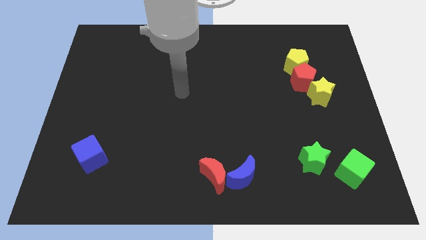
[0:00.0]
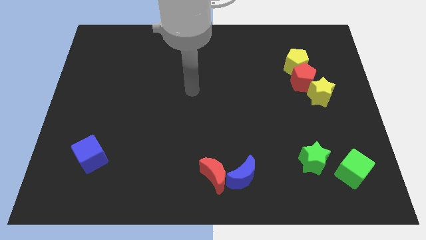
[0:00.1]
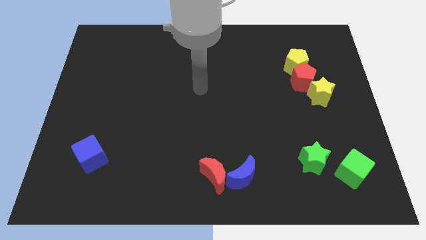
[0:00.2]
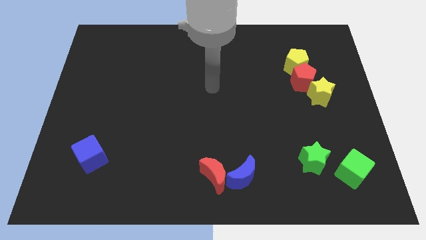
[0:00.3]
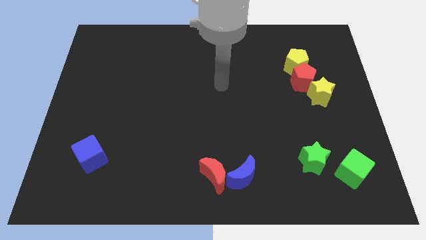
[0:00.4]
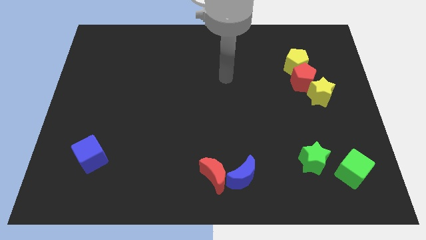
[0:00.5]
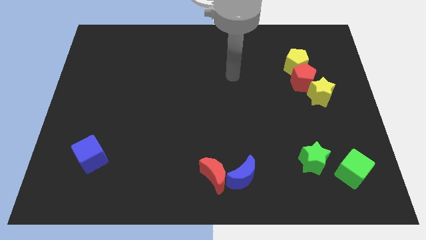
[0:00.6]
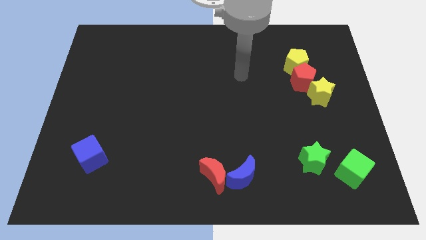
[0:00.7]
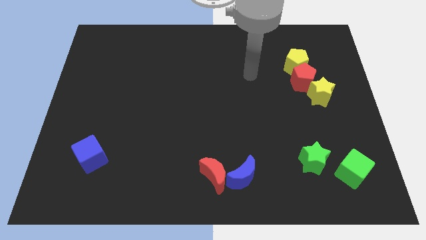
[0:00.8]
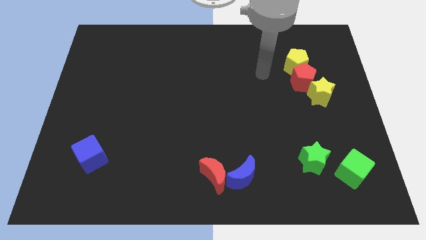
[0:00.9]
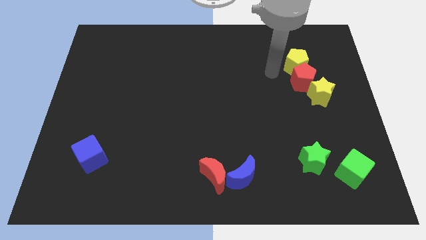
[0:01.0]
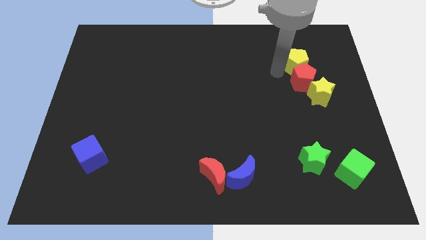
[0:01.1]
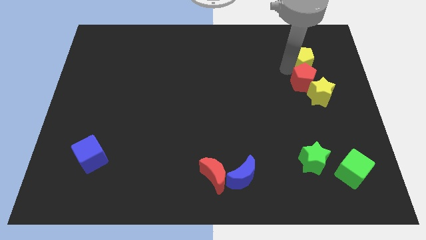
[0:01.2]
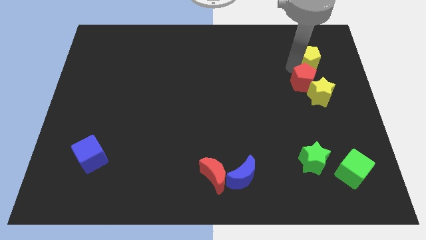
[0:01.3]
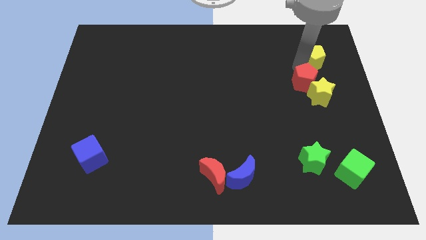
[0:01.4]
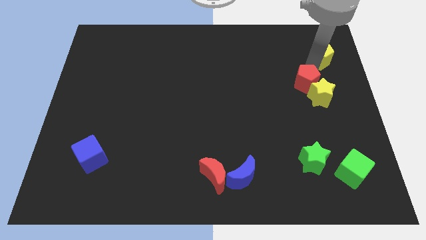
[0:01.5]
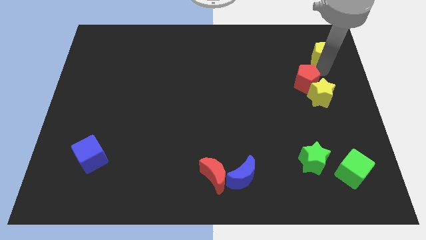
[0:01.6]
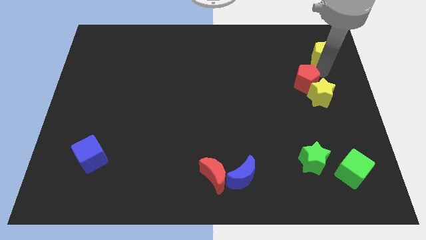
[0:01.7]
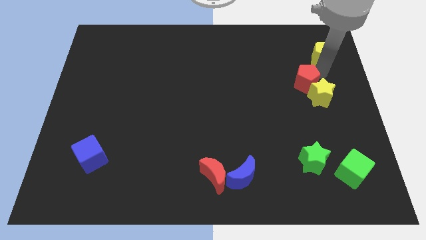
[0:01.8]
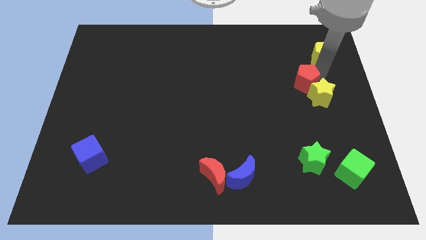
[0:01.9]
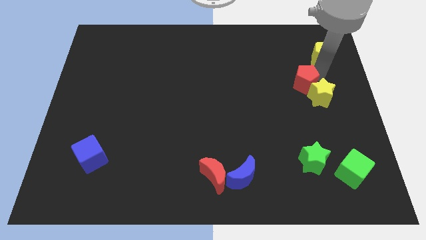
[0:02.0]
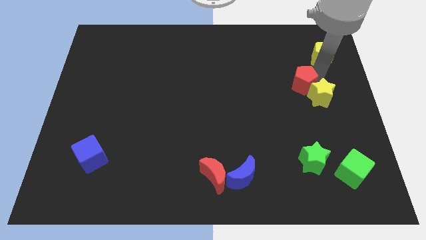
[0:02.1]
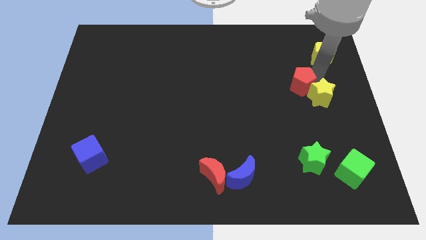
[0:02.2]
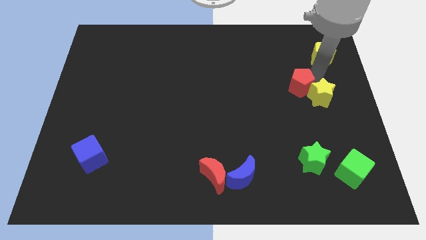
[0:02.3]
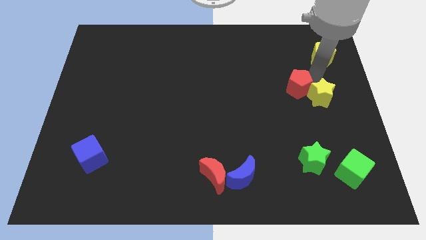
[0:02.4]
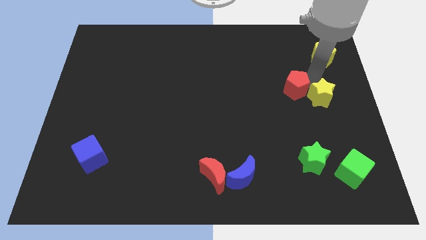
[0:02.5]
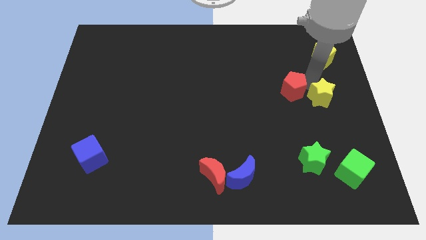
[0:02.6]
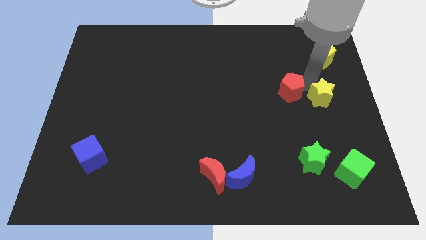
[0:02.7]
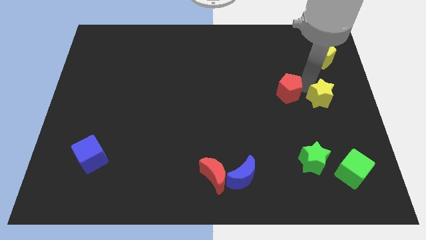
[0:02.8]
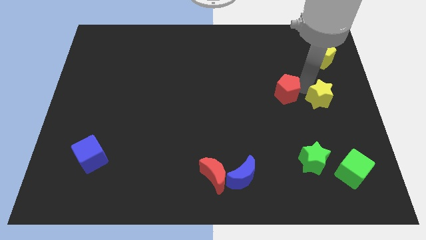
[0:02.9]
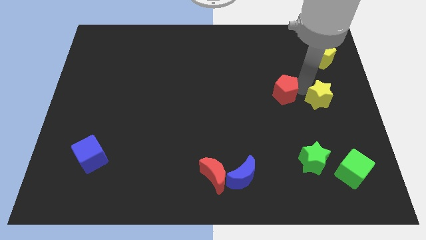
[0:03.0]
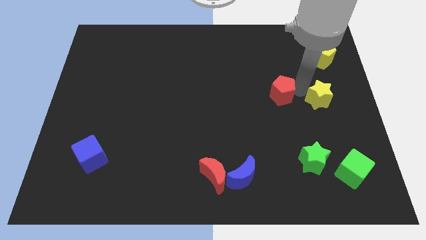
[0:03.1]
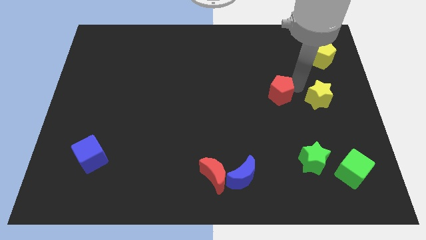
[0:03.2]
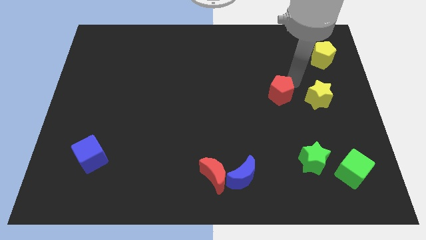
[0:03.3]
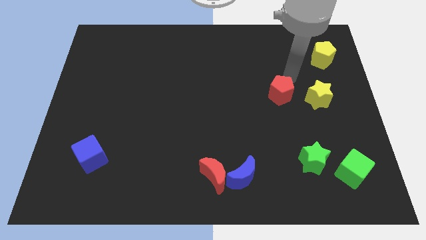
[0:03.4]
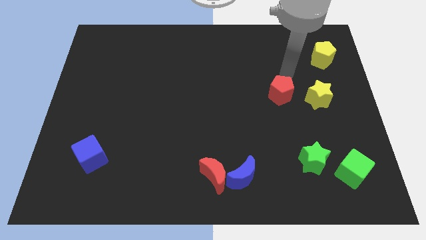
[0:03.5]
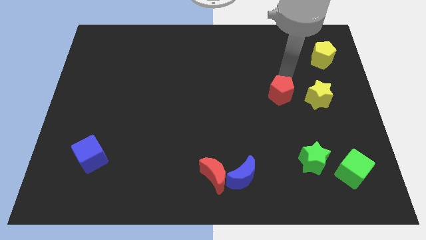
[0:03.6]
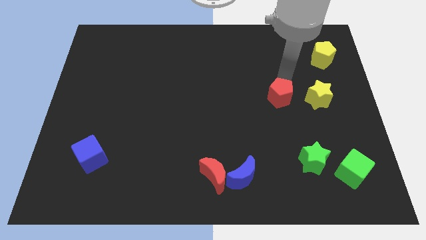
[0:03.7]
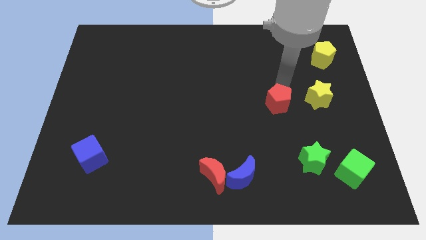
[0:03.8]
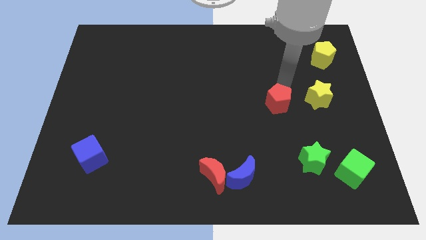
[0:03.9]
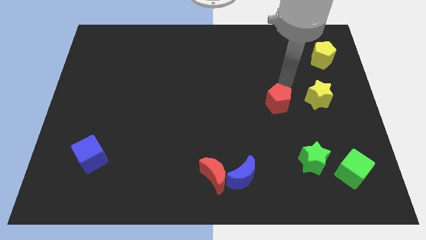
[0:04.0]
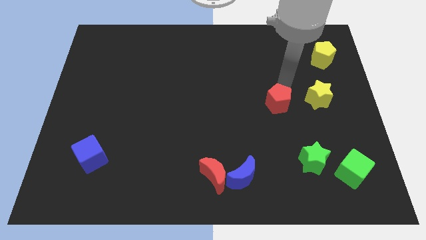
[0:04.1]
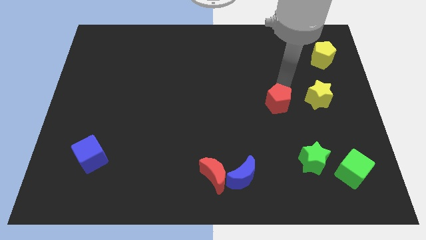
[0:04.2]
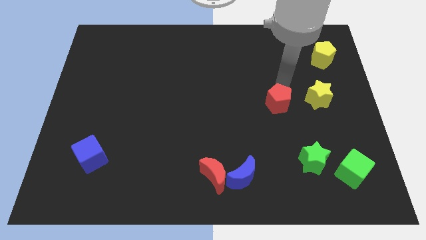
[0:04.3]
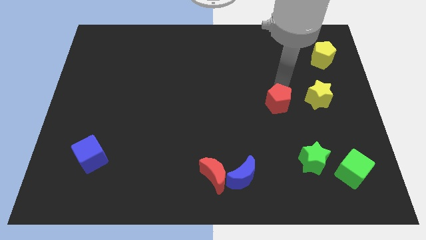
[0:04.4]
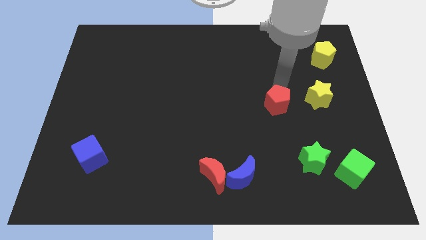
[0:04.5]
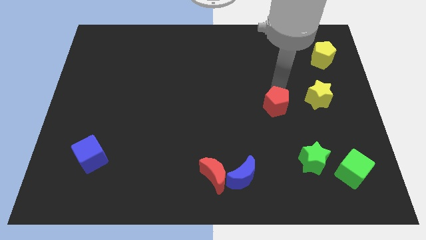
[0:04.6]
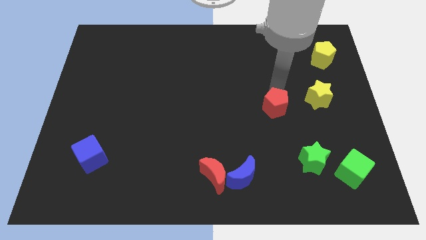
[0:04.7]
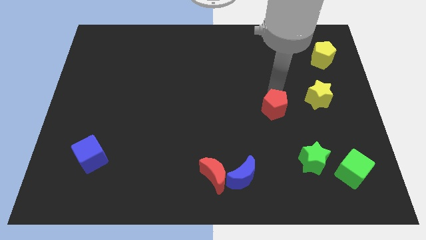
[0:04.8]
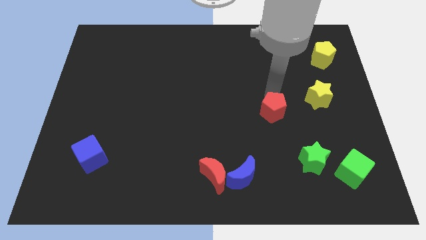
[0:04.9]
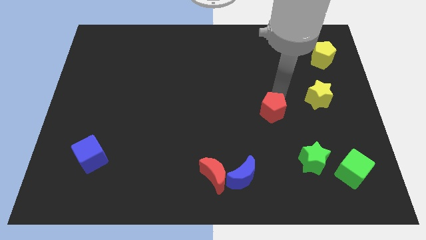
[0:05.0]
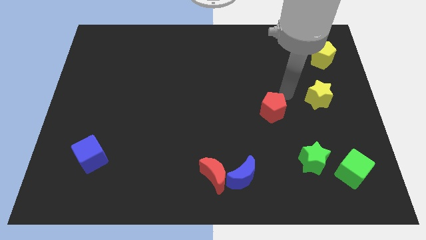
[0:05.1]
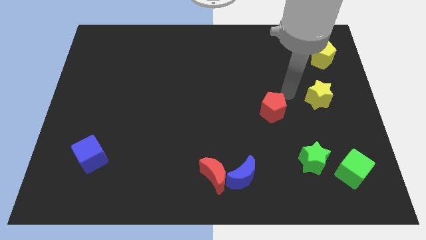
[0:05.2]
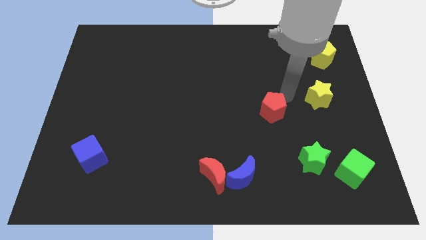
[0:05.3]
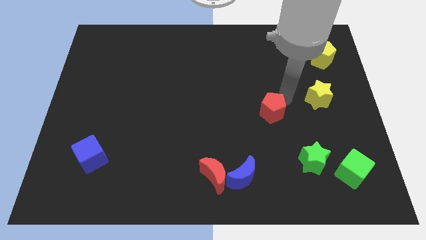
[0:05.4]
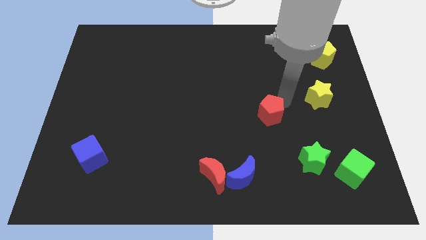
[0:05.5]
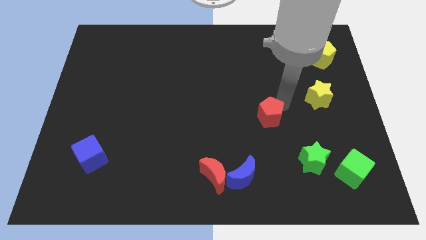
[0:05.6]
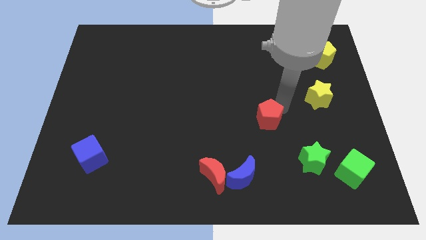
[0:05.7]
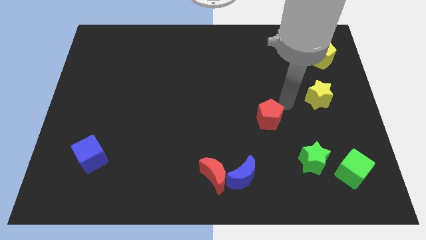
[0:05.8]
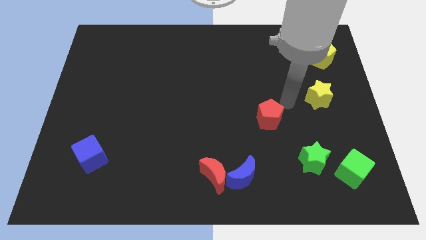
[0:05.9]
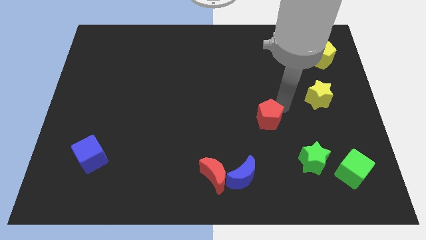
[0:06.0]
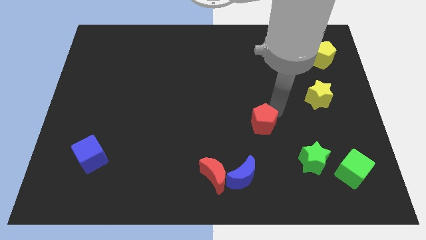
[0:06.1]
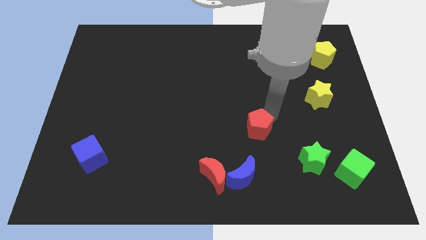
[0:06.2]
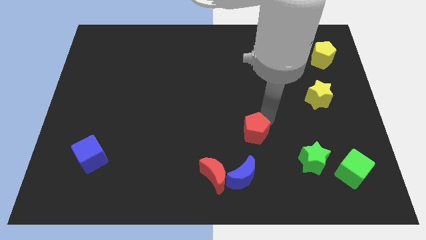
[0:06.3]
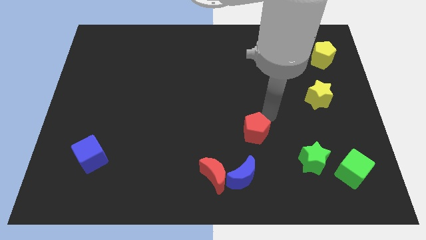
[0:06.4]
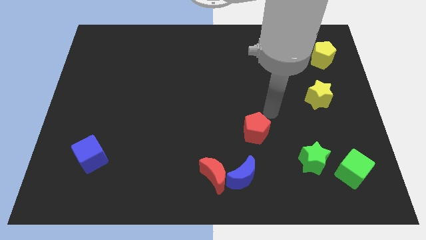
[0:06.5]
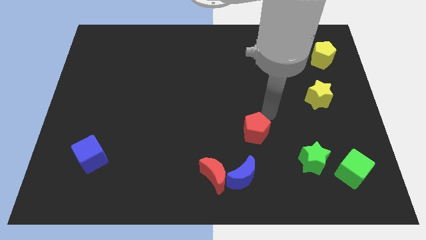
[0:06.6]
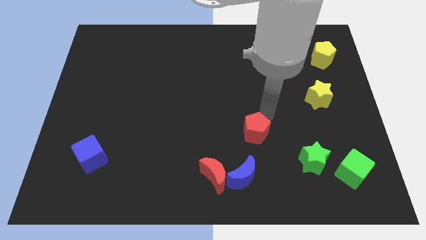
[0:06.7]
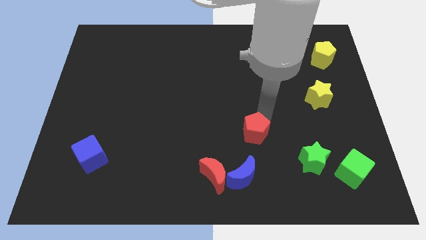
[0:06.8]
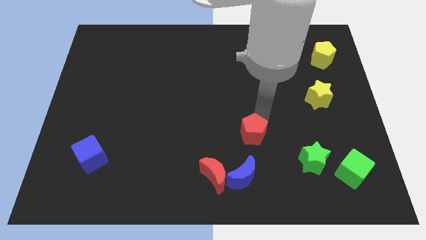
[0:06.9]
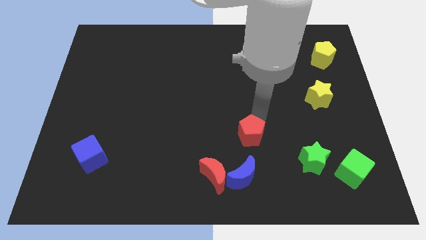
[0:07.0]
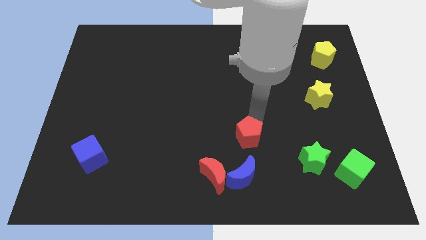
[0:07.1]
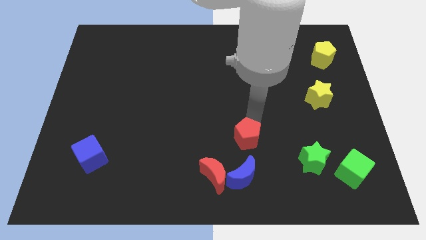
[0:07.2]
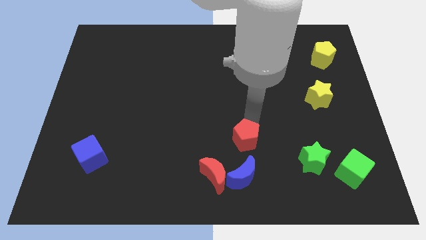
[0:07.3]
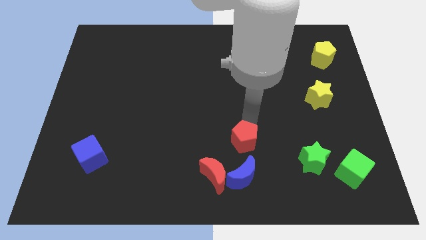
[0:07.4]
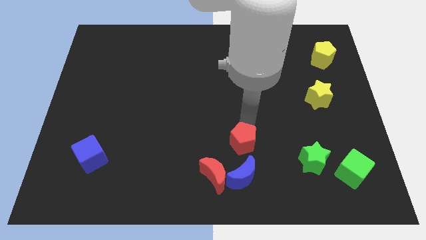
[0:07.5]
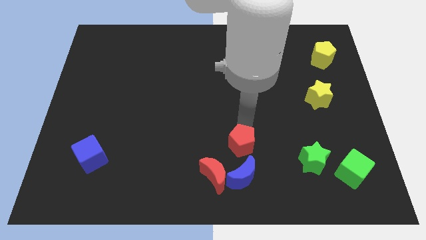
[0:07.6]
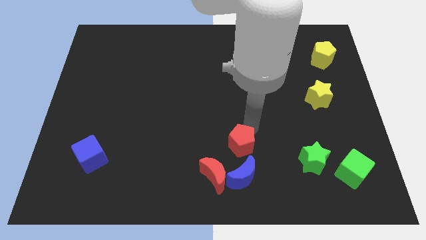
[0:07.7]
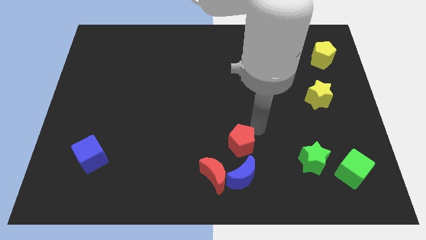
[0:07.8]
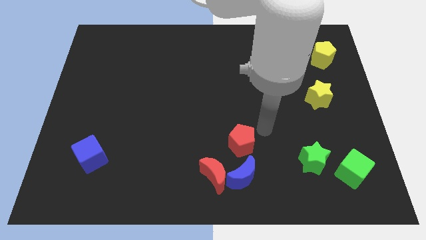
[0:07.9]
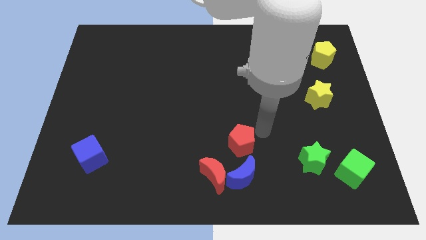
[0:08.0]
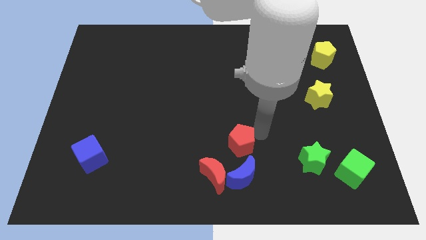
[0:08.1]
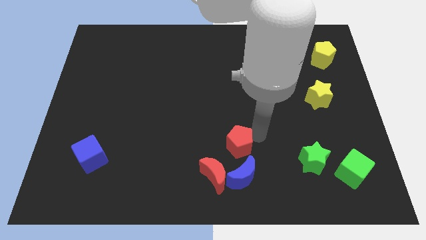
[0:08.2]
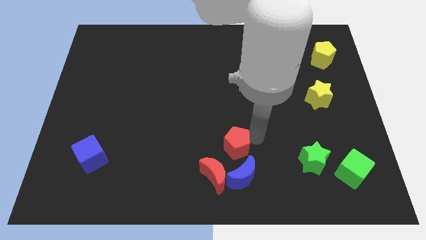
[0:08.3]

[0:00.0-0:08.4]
push the red pentagon diagonally up and to the left of the blue moon
